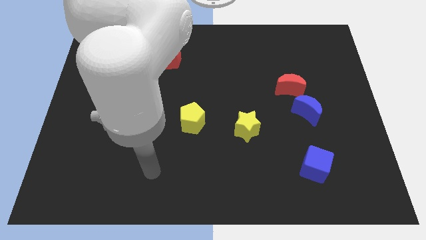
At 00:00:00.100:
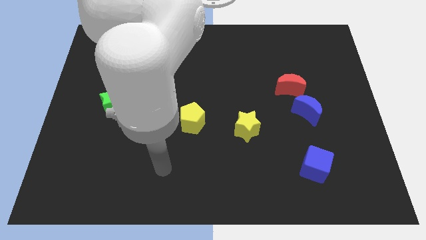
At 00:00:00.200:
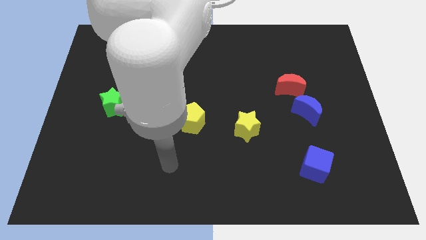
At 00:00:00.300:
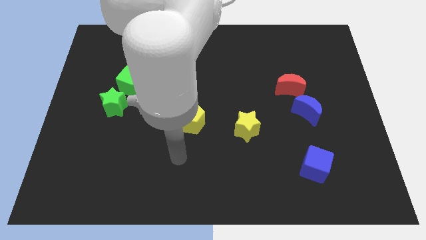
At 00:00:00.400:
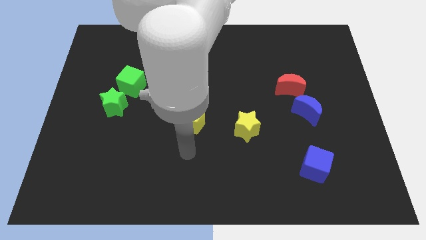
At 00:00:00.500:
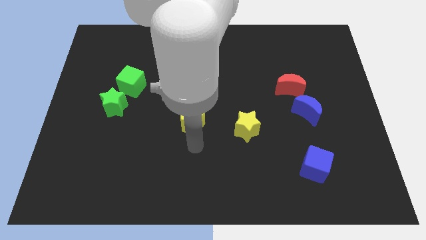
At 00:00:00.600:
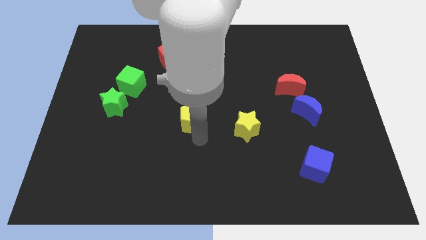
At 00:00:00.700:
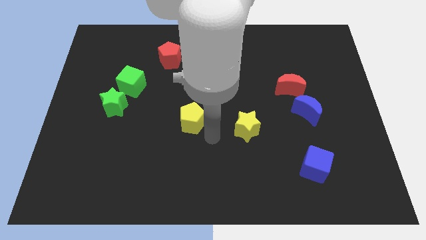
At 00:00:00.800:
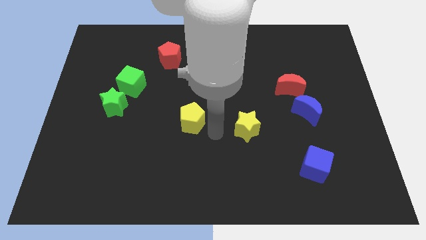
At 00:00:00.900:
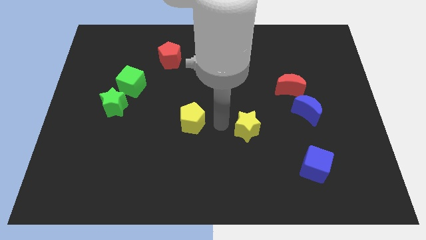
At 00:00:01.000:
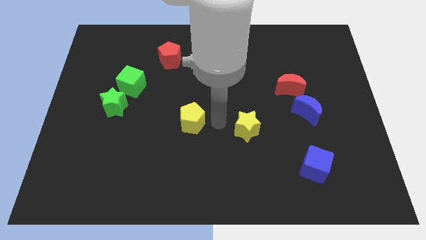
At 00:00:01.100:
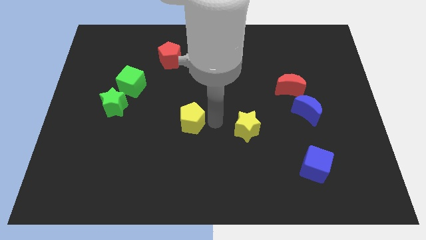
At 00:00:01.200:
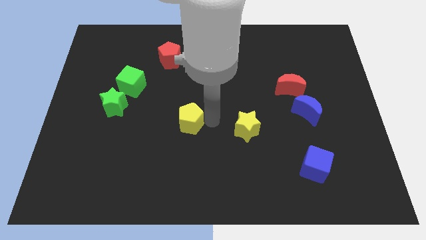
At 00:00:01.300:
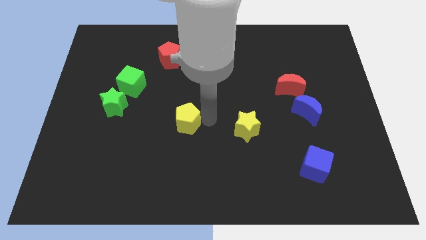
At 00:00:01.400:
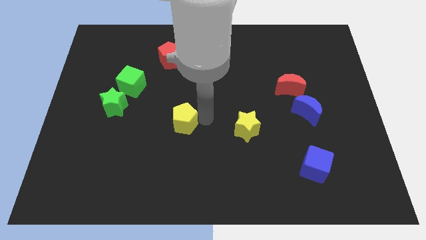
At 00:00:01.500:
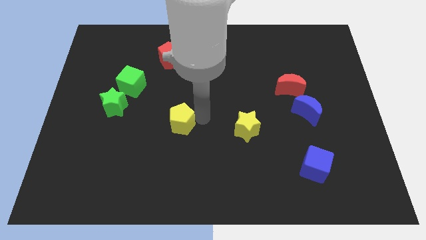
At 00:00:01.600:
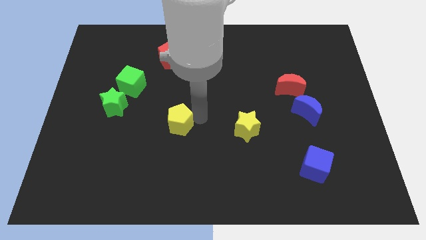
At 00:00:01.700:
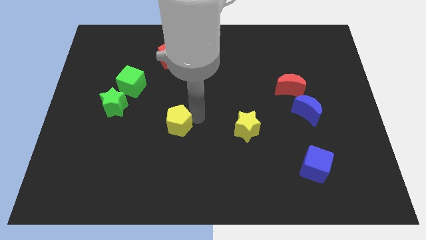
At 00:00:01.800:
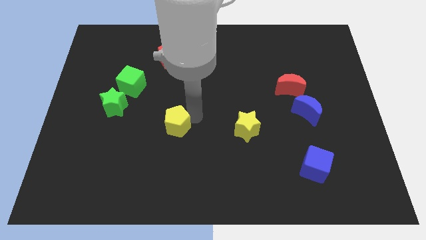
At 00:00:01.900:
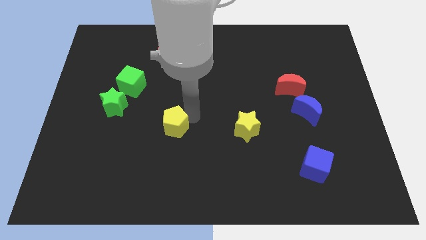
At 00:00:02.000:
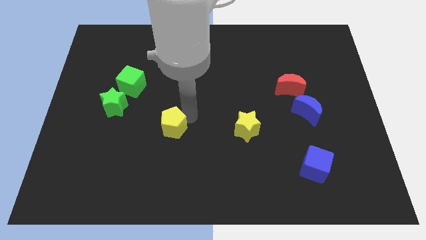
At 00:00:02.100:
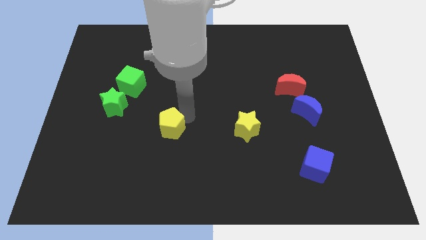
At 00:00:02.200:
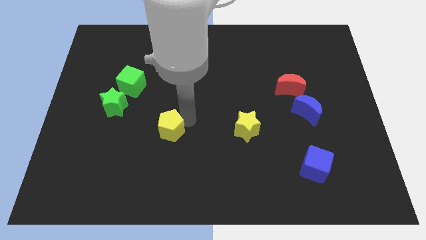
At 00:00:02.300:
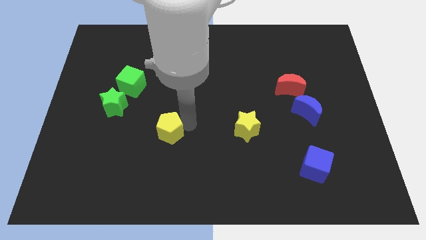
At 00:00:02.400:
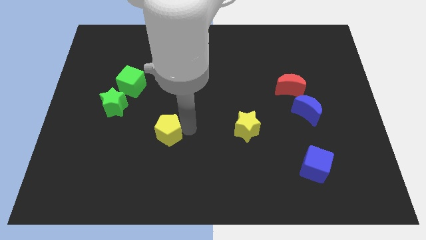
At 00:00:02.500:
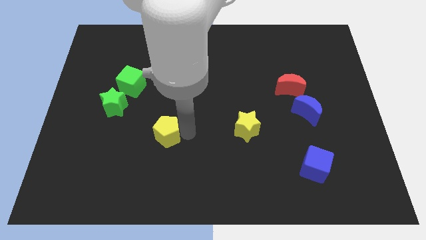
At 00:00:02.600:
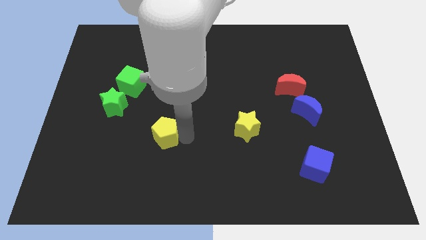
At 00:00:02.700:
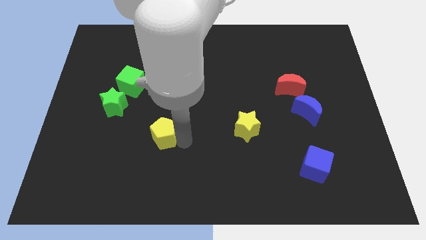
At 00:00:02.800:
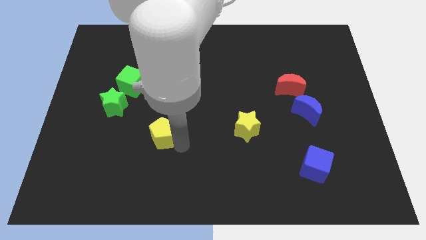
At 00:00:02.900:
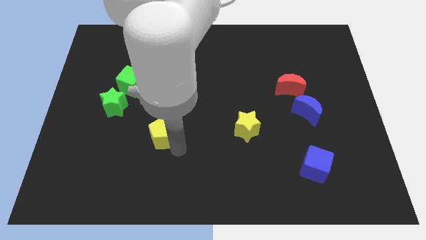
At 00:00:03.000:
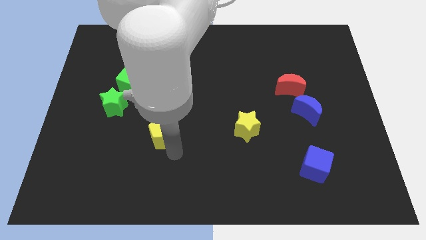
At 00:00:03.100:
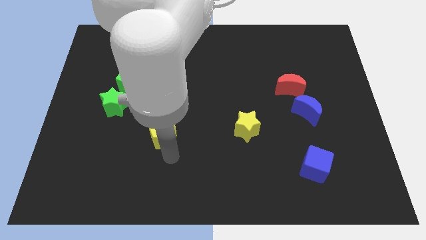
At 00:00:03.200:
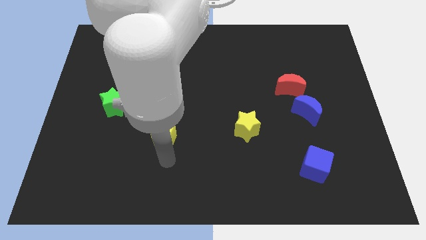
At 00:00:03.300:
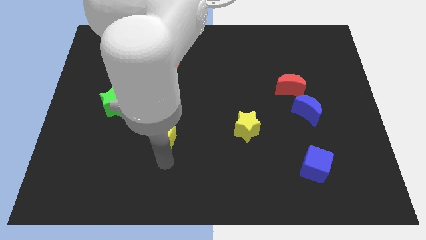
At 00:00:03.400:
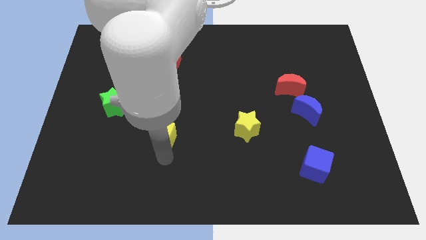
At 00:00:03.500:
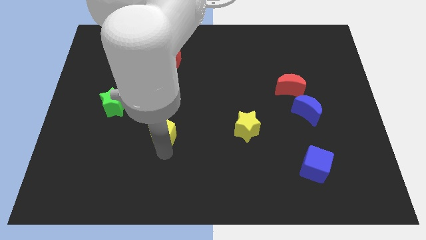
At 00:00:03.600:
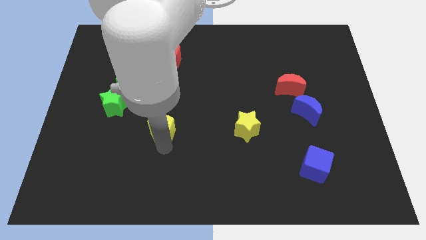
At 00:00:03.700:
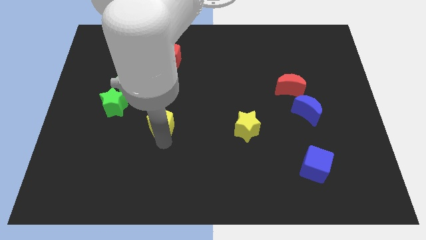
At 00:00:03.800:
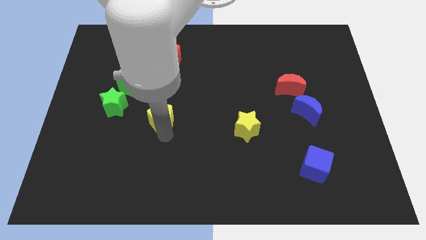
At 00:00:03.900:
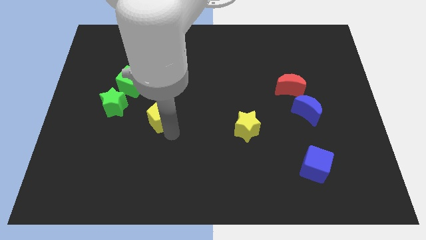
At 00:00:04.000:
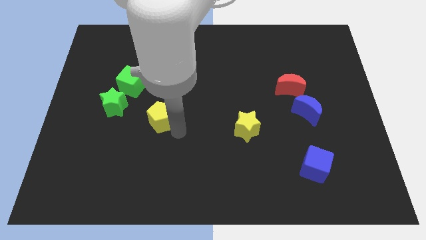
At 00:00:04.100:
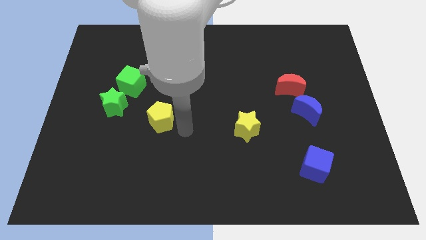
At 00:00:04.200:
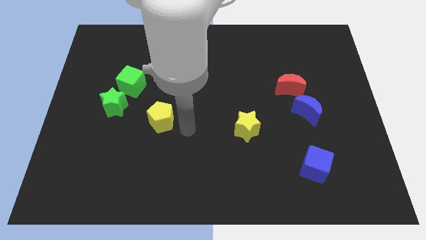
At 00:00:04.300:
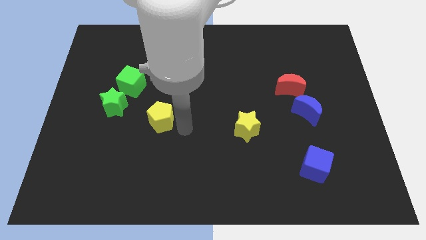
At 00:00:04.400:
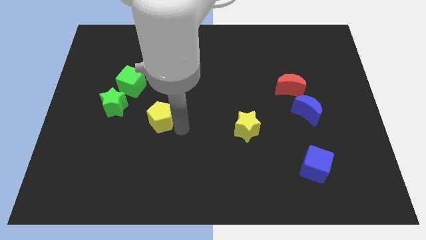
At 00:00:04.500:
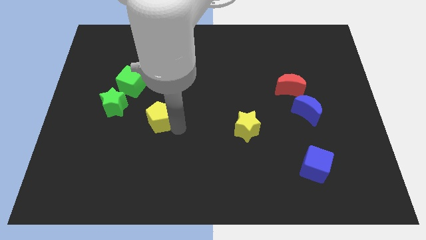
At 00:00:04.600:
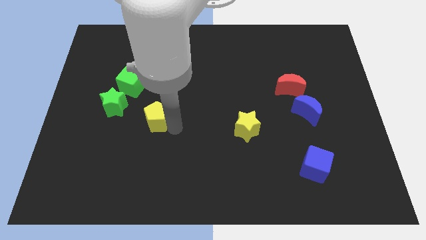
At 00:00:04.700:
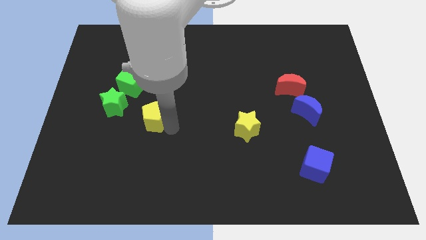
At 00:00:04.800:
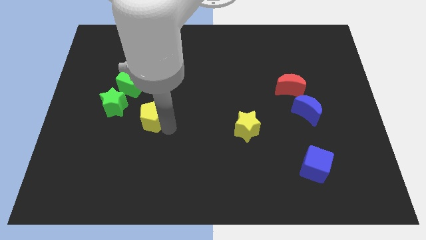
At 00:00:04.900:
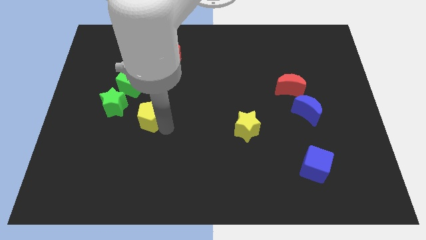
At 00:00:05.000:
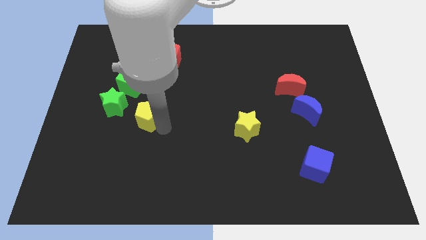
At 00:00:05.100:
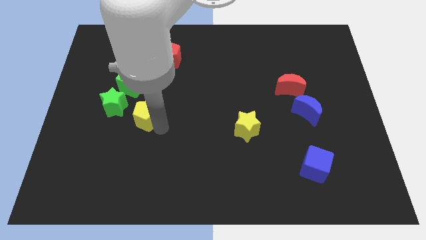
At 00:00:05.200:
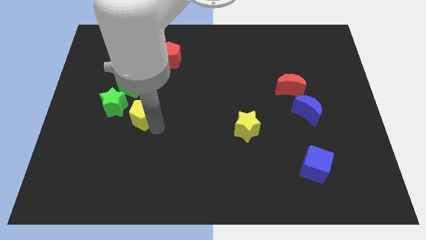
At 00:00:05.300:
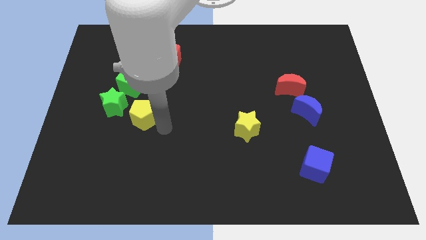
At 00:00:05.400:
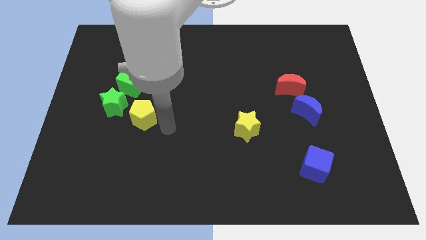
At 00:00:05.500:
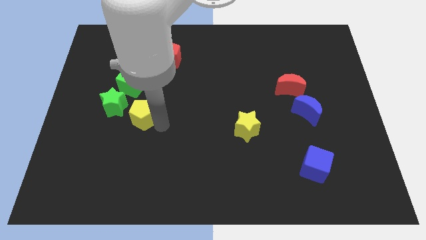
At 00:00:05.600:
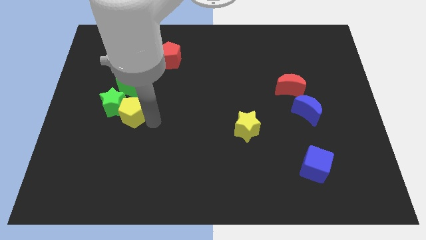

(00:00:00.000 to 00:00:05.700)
move the yellow pentagon towards the green star

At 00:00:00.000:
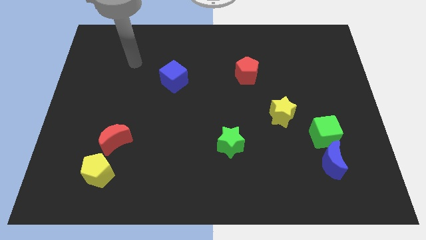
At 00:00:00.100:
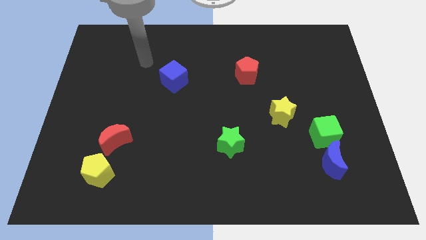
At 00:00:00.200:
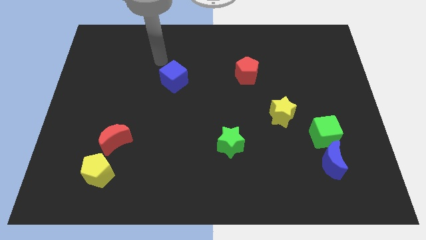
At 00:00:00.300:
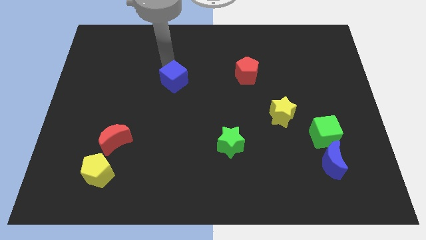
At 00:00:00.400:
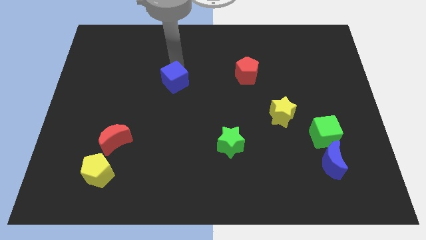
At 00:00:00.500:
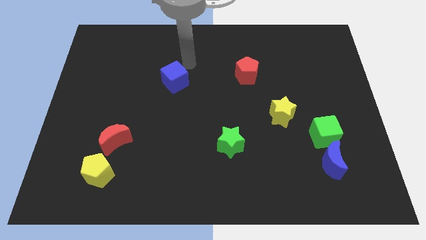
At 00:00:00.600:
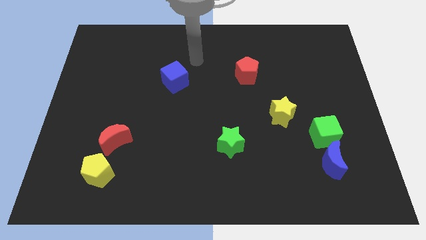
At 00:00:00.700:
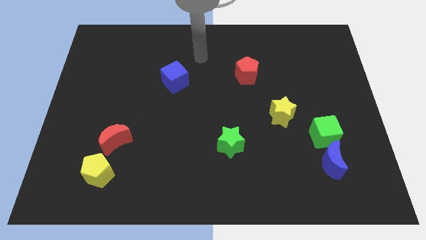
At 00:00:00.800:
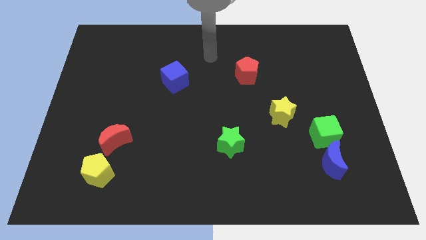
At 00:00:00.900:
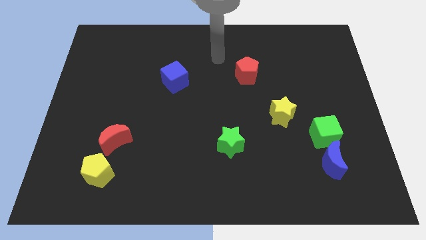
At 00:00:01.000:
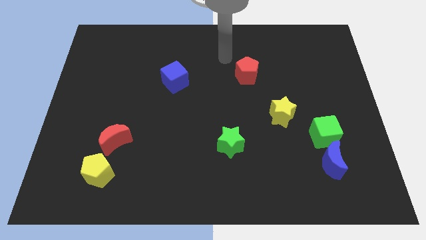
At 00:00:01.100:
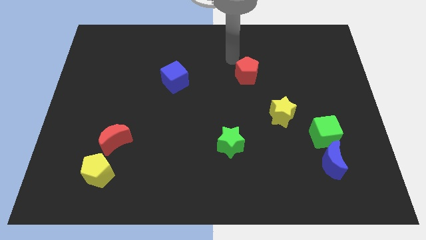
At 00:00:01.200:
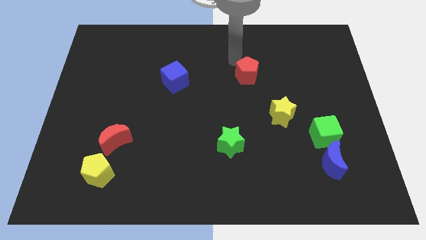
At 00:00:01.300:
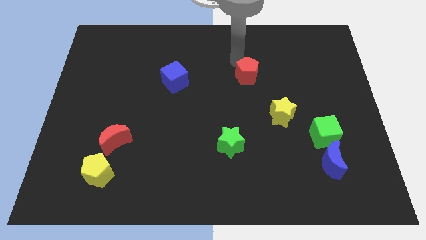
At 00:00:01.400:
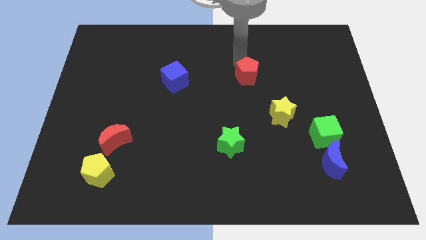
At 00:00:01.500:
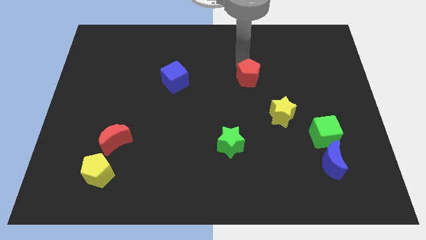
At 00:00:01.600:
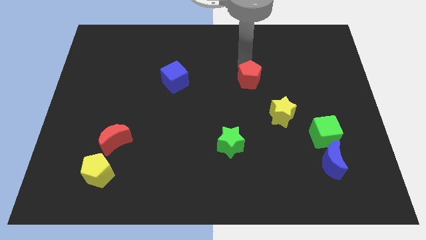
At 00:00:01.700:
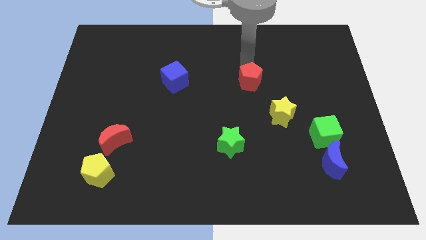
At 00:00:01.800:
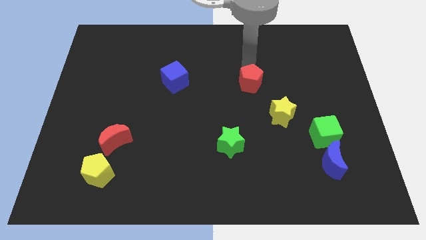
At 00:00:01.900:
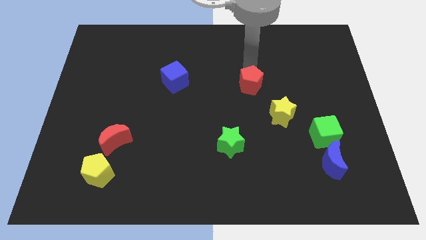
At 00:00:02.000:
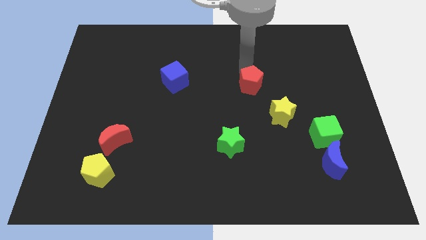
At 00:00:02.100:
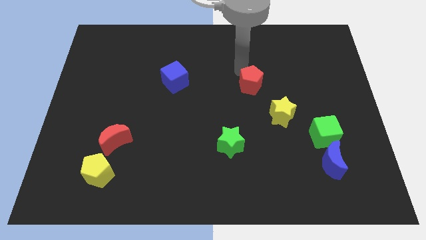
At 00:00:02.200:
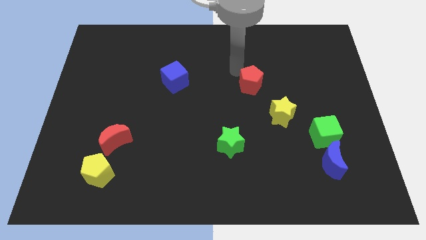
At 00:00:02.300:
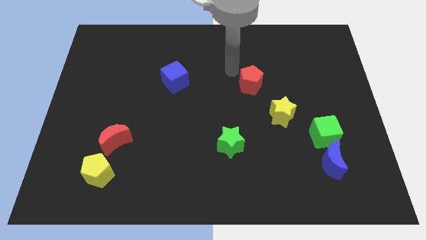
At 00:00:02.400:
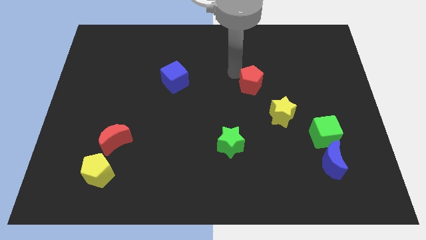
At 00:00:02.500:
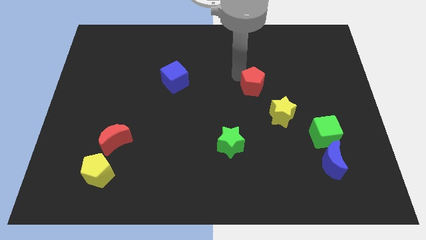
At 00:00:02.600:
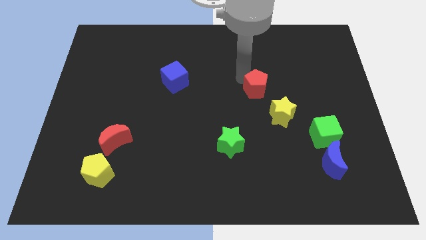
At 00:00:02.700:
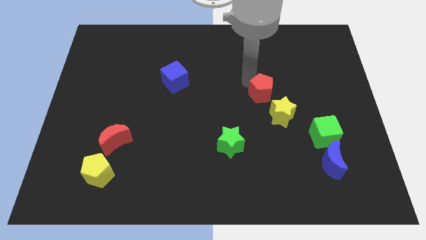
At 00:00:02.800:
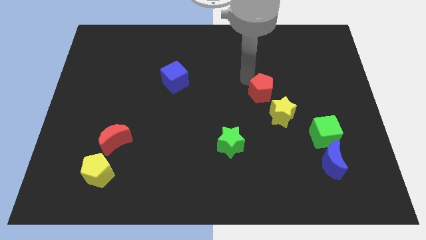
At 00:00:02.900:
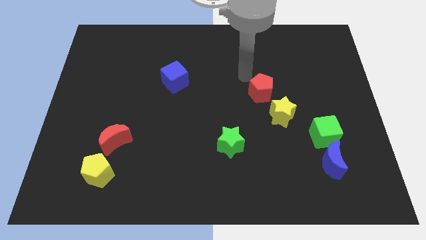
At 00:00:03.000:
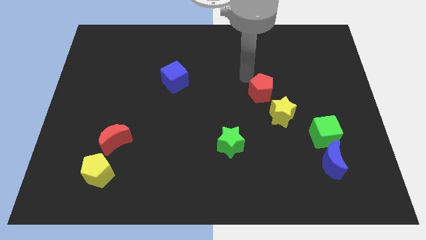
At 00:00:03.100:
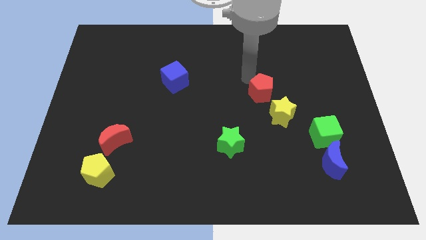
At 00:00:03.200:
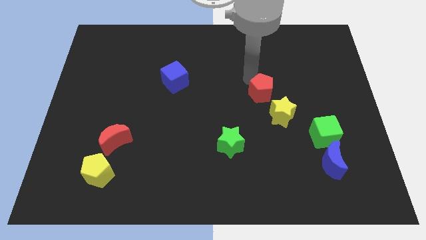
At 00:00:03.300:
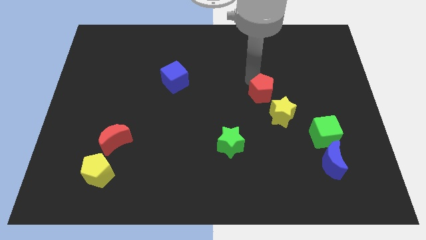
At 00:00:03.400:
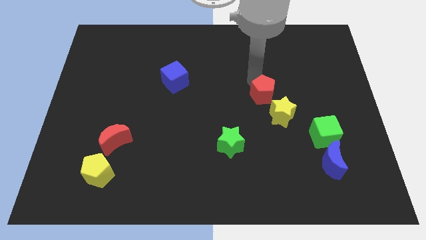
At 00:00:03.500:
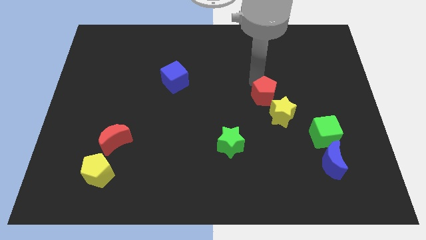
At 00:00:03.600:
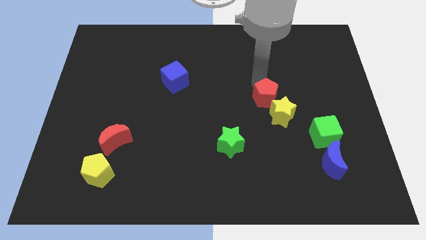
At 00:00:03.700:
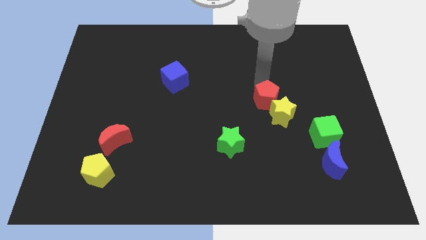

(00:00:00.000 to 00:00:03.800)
slide the red pentagon towards the yellow star
